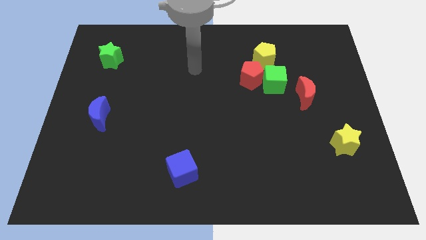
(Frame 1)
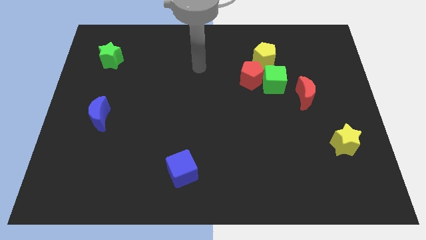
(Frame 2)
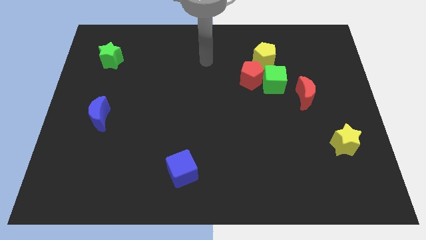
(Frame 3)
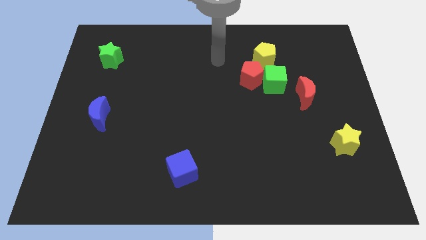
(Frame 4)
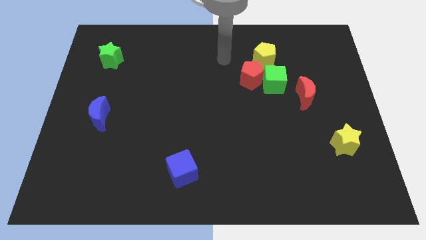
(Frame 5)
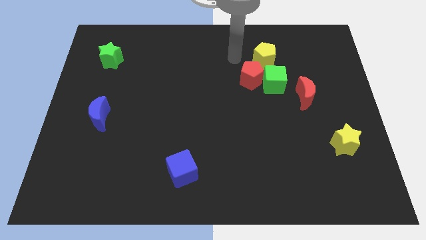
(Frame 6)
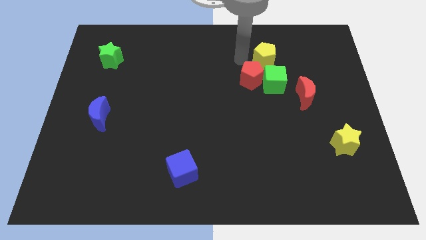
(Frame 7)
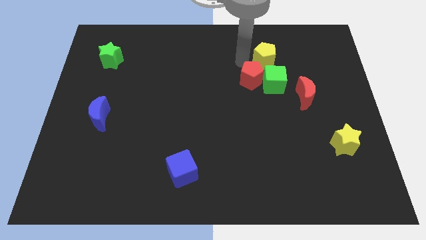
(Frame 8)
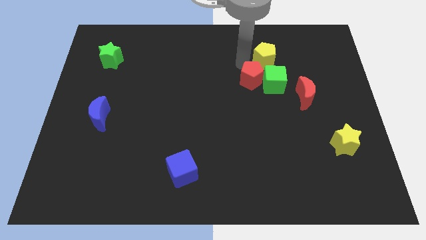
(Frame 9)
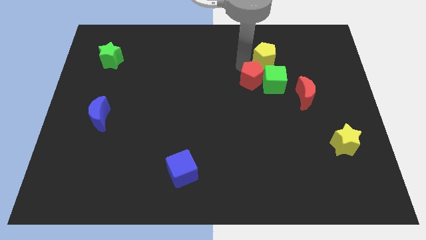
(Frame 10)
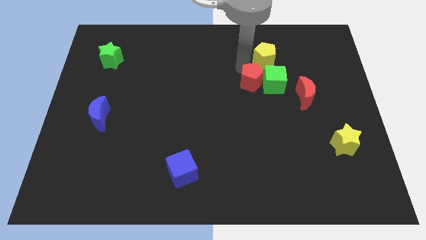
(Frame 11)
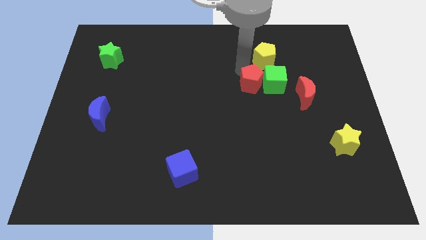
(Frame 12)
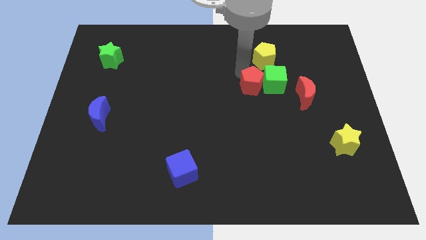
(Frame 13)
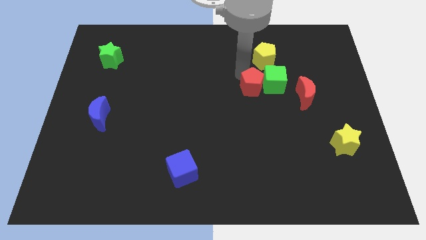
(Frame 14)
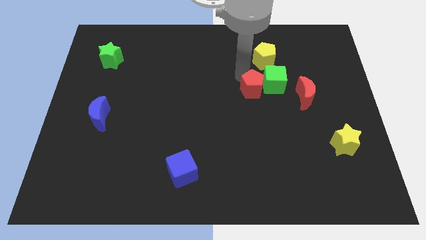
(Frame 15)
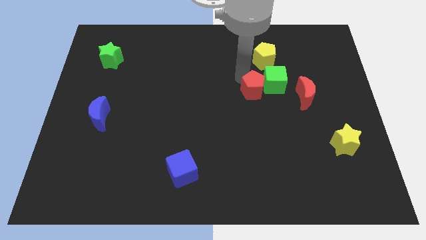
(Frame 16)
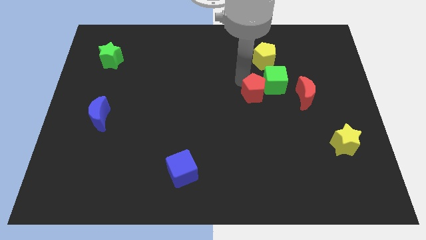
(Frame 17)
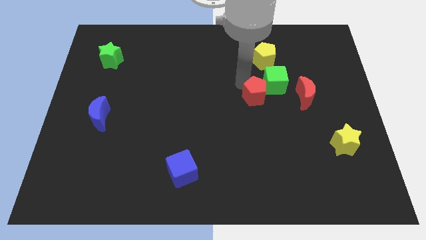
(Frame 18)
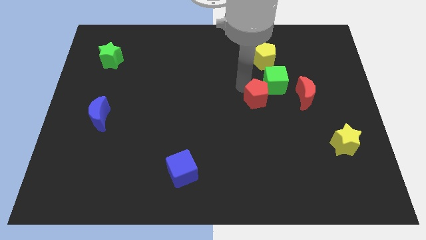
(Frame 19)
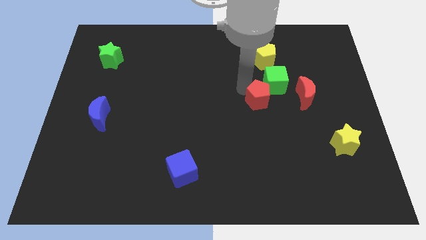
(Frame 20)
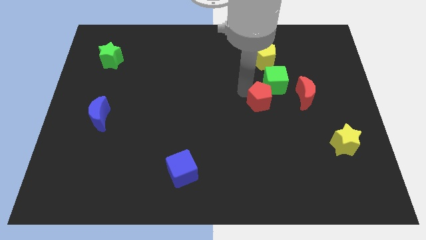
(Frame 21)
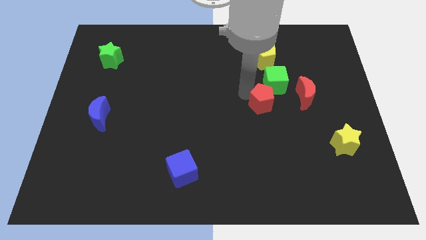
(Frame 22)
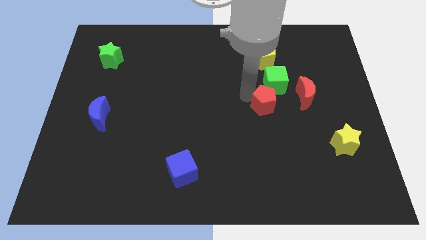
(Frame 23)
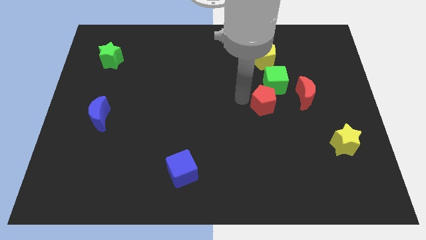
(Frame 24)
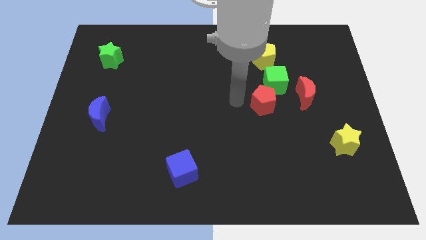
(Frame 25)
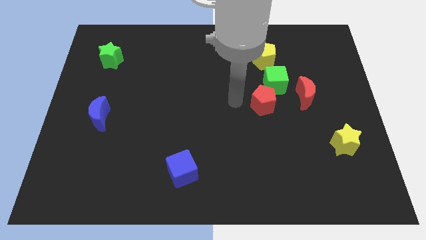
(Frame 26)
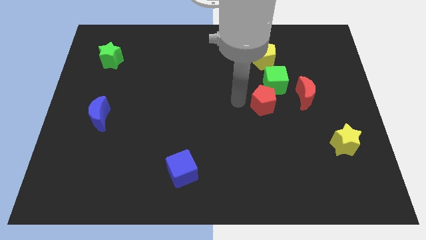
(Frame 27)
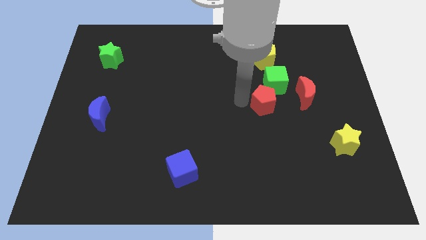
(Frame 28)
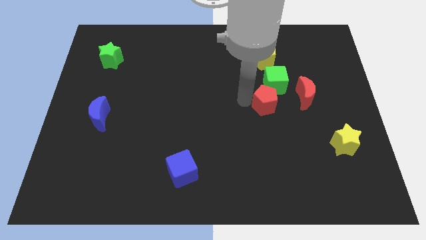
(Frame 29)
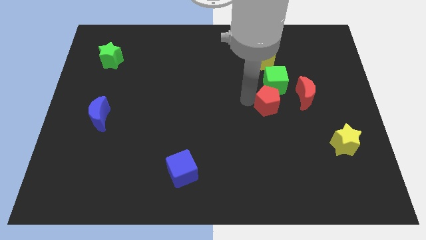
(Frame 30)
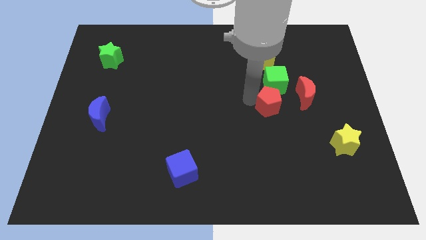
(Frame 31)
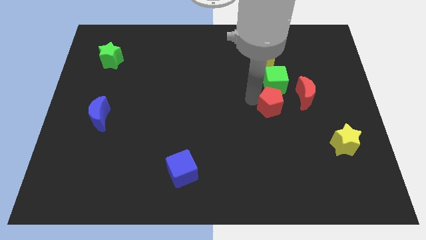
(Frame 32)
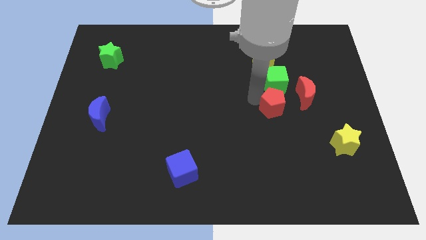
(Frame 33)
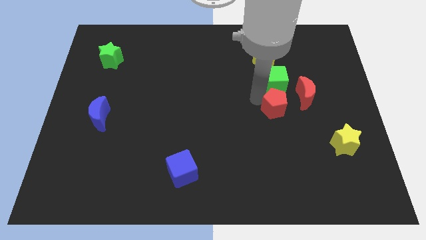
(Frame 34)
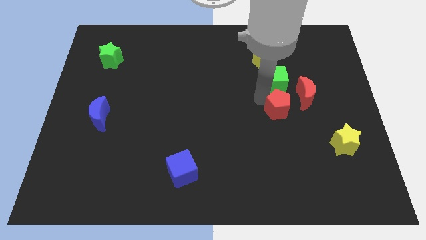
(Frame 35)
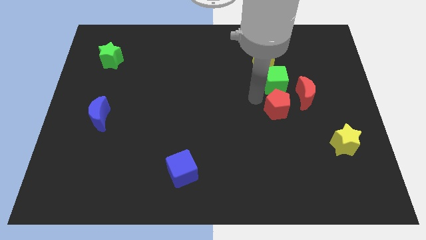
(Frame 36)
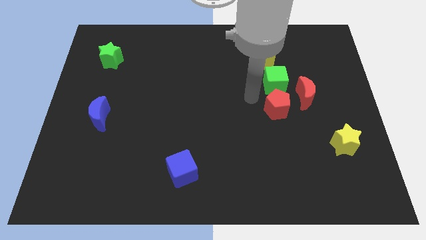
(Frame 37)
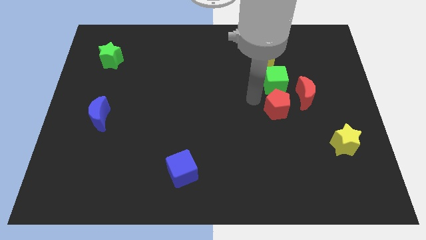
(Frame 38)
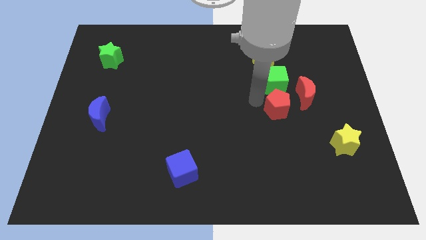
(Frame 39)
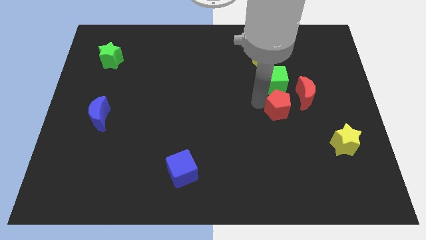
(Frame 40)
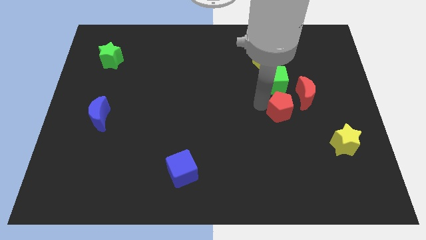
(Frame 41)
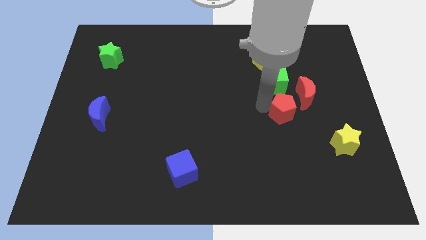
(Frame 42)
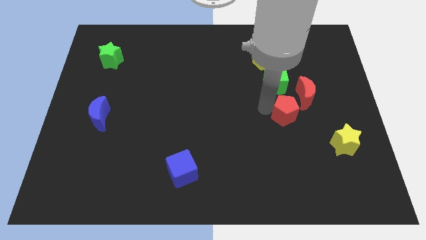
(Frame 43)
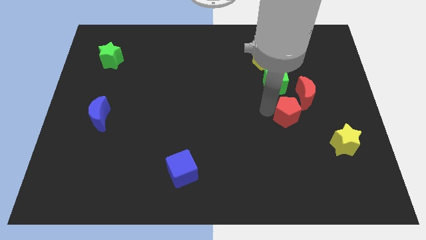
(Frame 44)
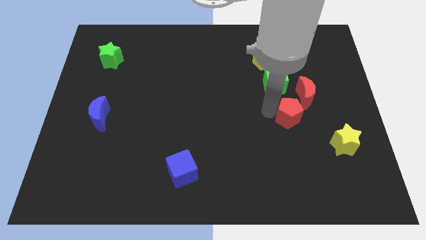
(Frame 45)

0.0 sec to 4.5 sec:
slide the red pentagon to the bottom of the red moon

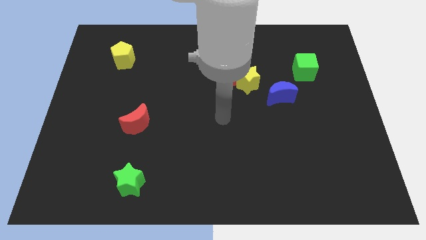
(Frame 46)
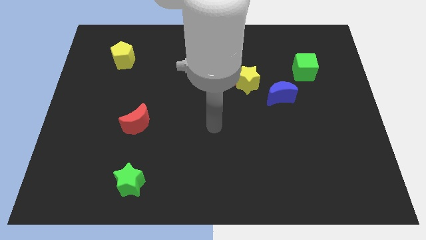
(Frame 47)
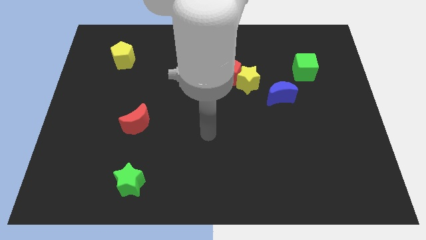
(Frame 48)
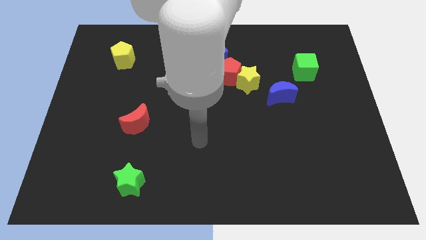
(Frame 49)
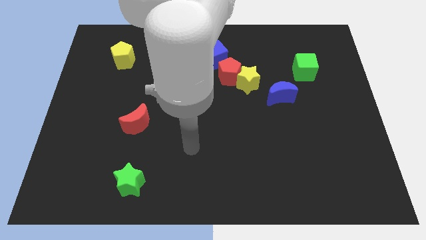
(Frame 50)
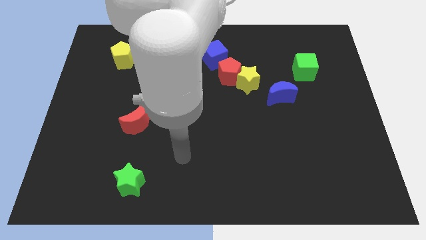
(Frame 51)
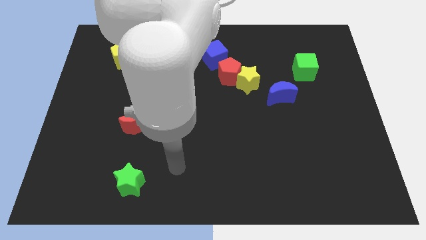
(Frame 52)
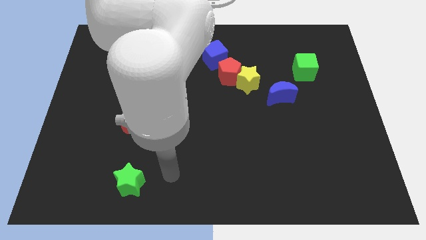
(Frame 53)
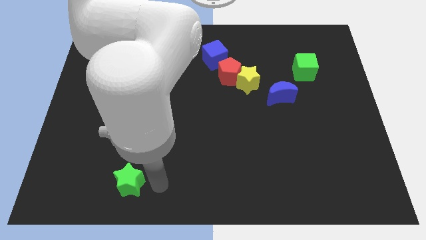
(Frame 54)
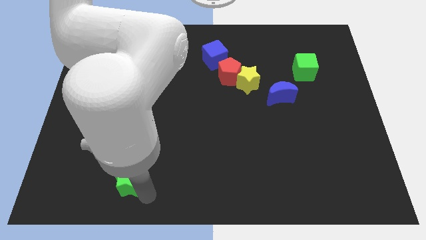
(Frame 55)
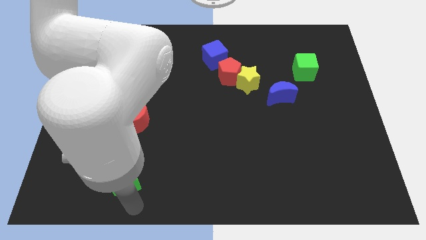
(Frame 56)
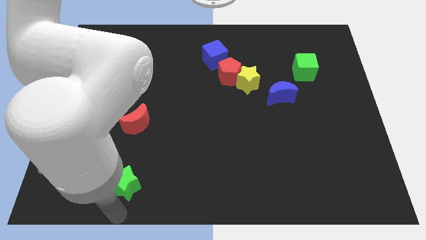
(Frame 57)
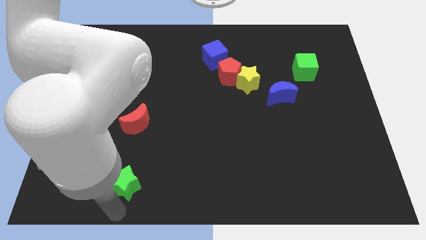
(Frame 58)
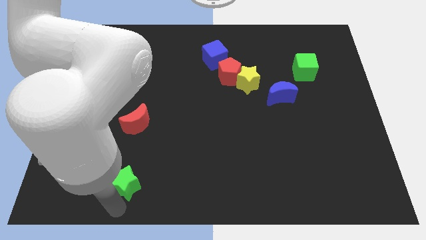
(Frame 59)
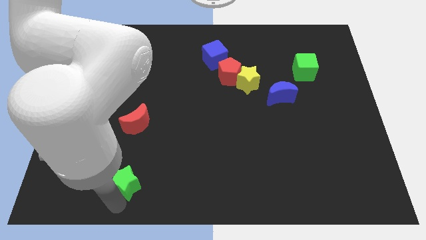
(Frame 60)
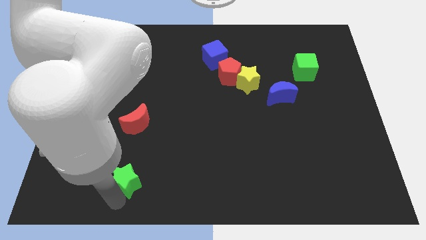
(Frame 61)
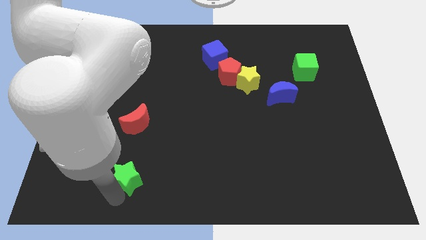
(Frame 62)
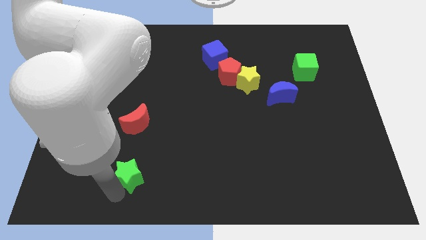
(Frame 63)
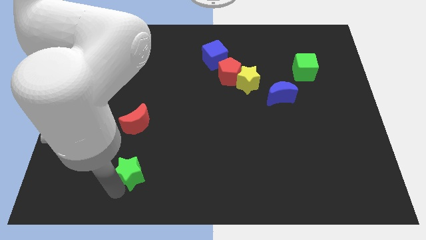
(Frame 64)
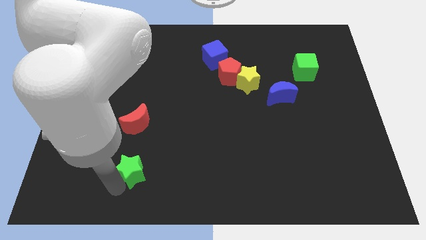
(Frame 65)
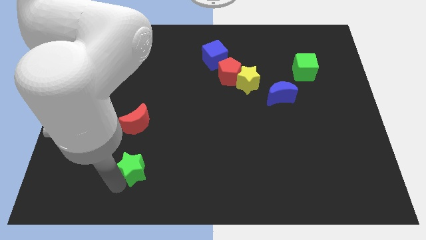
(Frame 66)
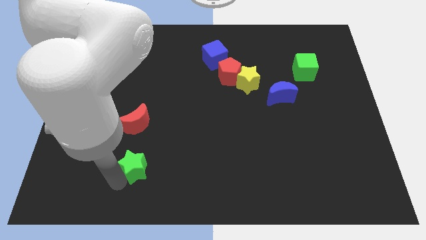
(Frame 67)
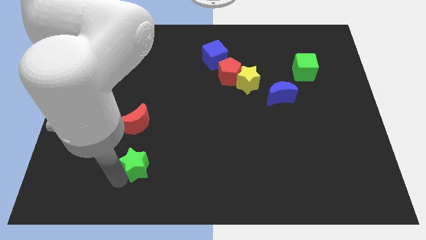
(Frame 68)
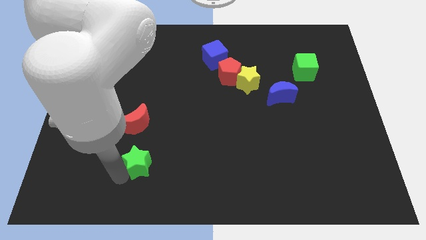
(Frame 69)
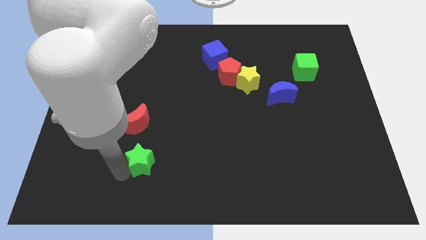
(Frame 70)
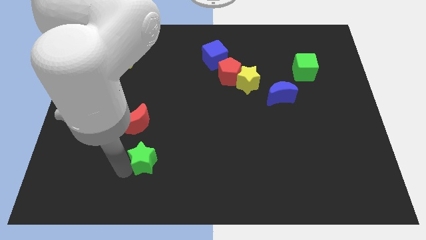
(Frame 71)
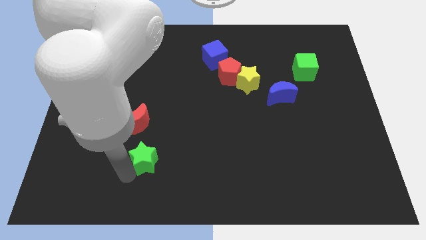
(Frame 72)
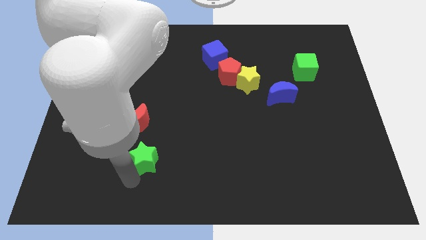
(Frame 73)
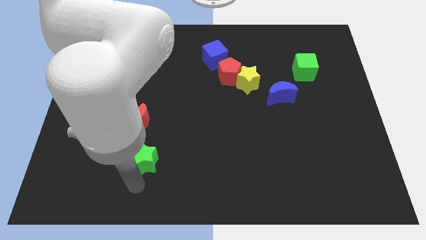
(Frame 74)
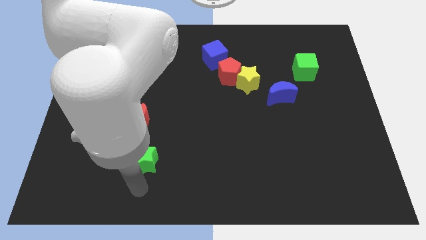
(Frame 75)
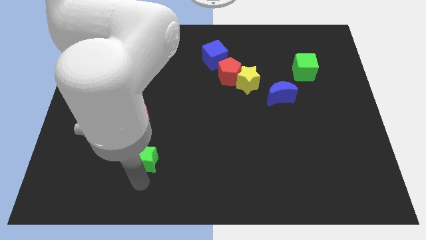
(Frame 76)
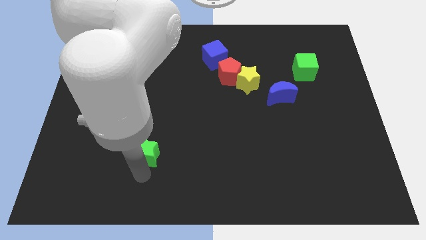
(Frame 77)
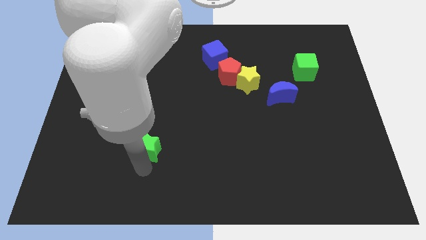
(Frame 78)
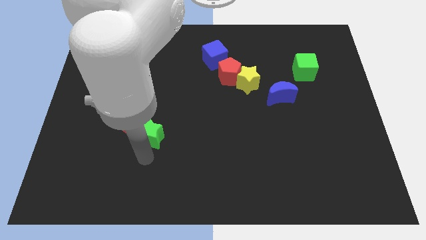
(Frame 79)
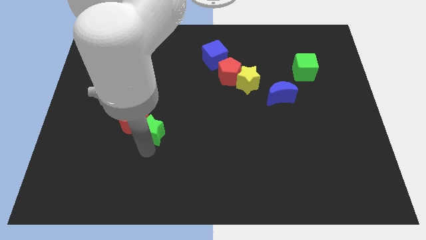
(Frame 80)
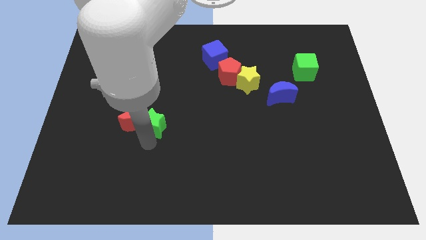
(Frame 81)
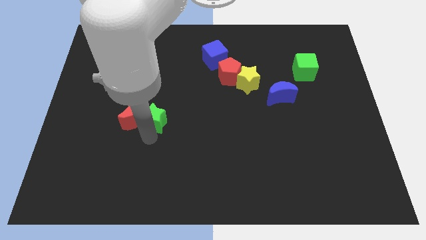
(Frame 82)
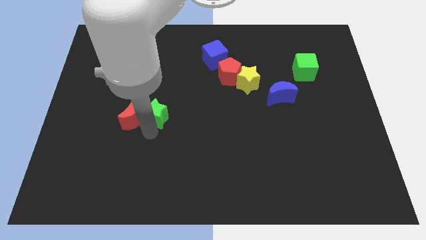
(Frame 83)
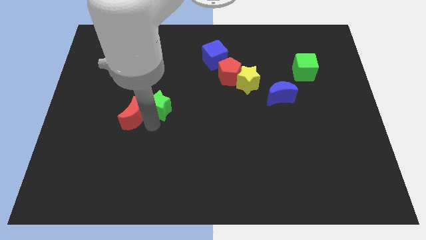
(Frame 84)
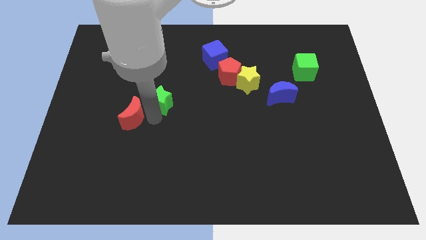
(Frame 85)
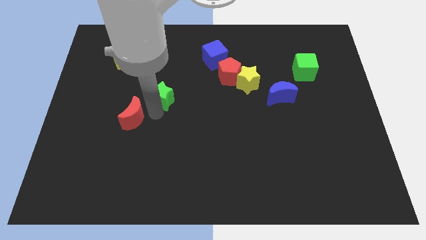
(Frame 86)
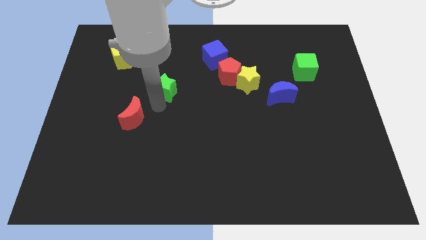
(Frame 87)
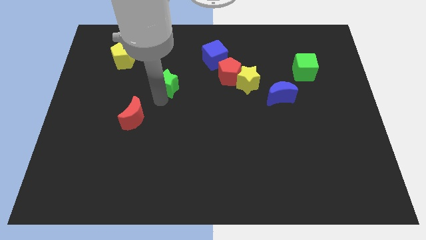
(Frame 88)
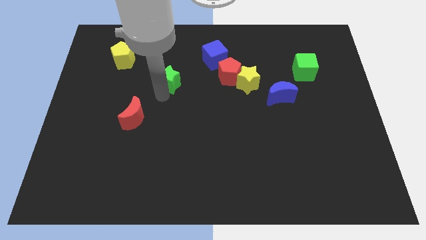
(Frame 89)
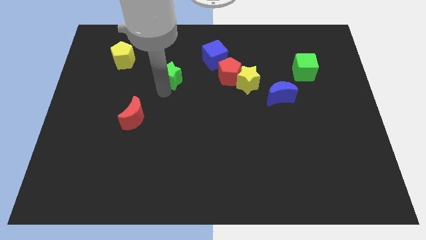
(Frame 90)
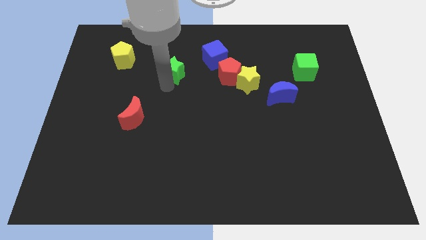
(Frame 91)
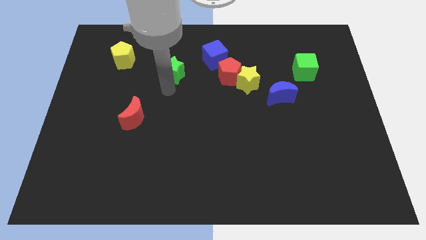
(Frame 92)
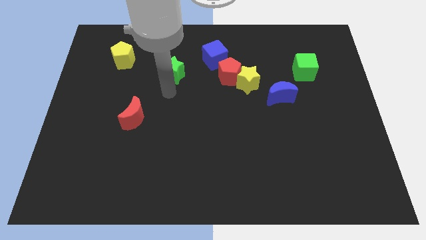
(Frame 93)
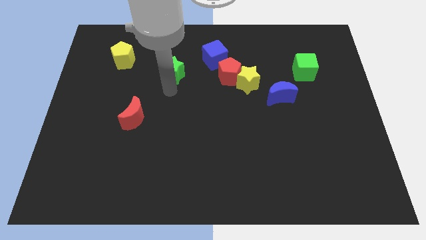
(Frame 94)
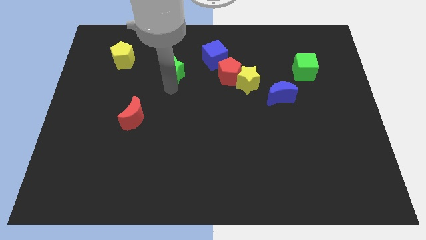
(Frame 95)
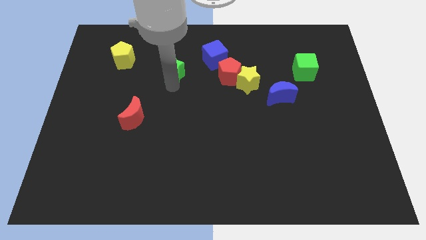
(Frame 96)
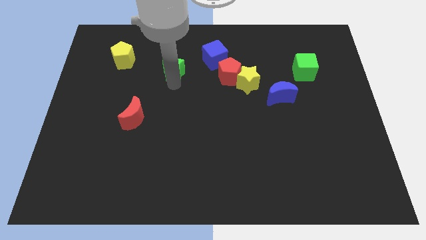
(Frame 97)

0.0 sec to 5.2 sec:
move the green star left of the blue cube
